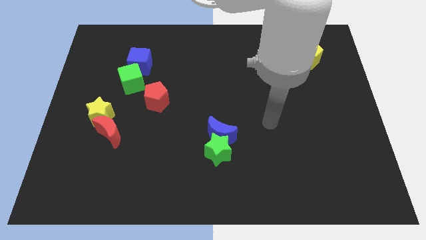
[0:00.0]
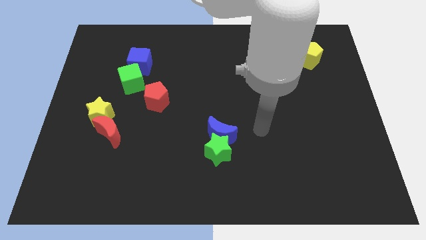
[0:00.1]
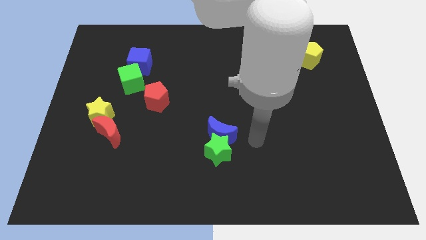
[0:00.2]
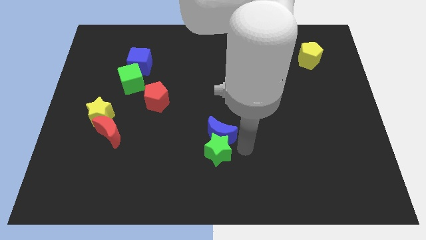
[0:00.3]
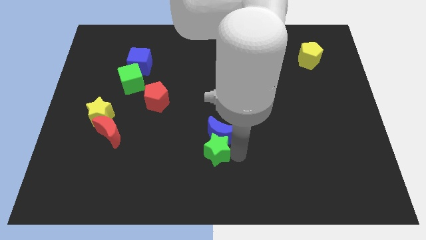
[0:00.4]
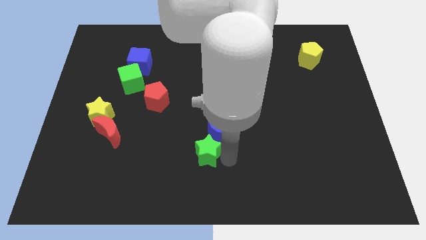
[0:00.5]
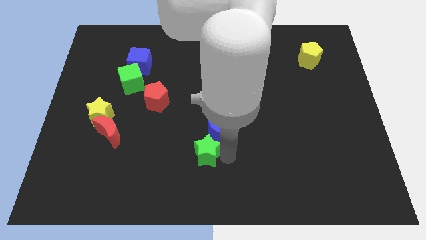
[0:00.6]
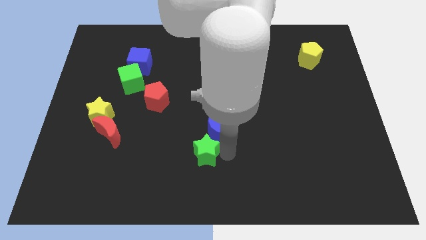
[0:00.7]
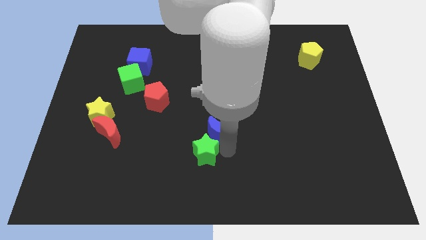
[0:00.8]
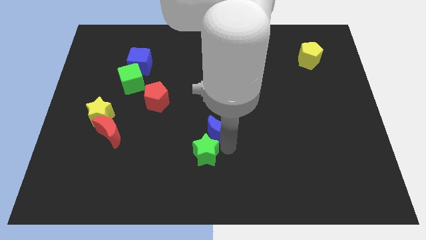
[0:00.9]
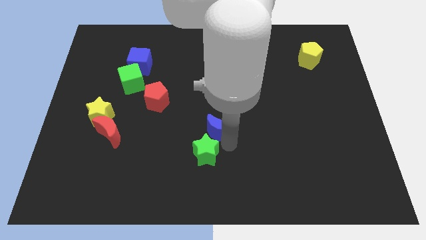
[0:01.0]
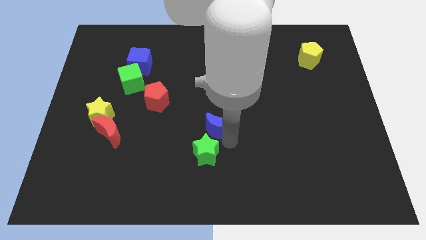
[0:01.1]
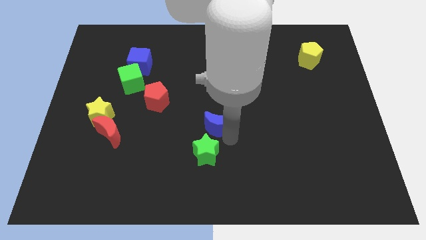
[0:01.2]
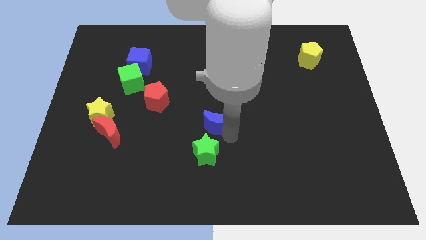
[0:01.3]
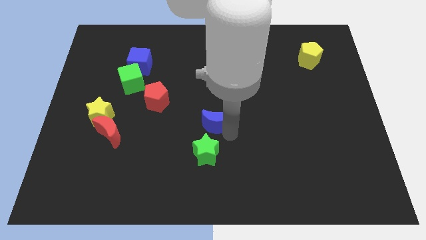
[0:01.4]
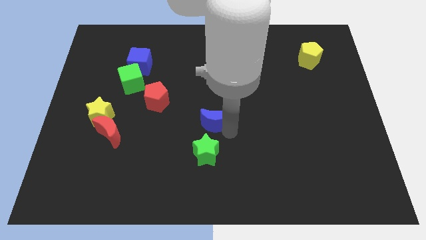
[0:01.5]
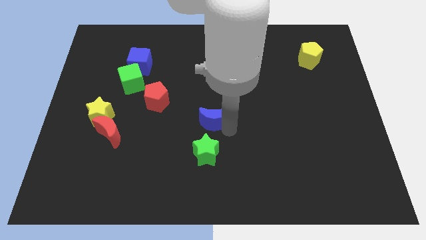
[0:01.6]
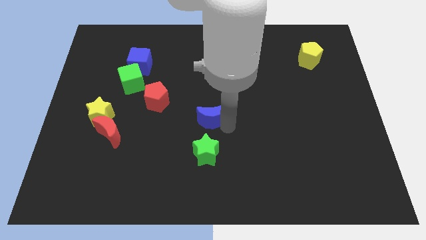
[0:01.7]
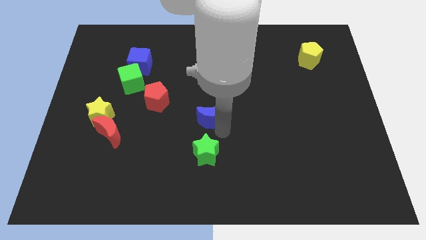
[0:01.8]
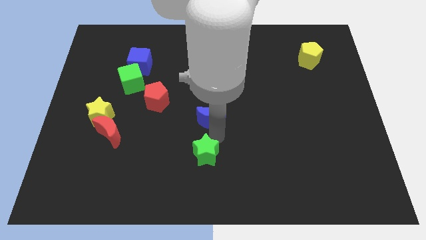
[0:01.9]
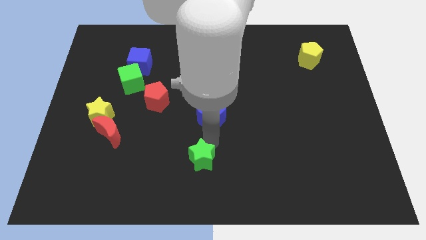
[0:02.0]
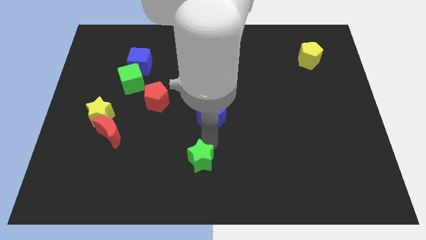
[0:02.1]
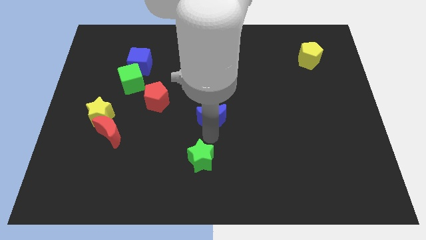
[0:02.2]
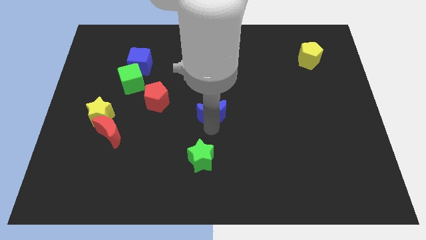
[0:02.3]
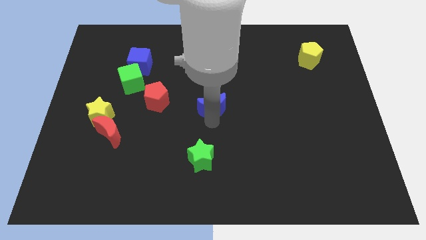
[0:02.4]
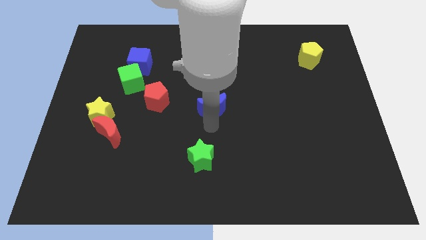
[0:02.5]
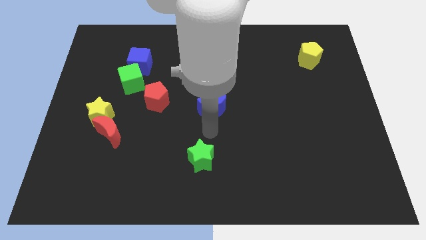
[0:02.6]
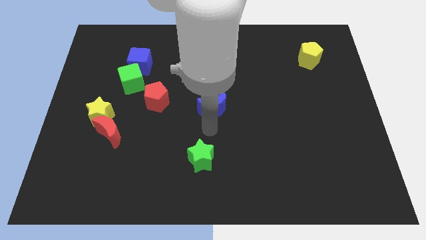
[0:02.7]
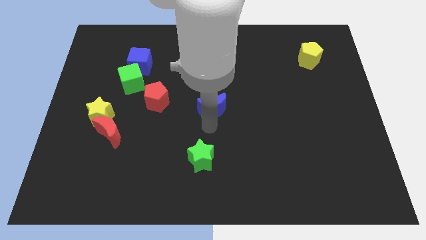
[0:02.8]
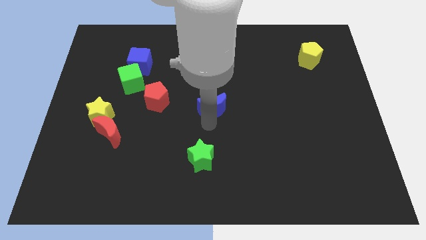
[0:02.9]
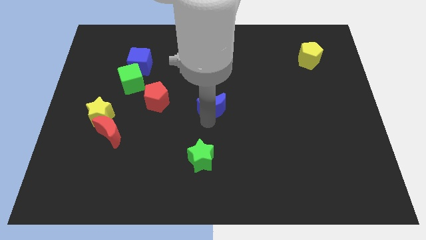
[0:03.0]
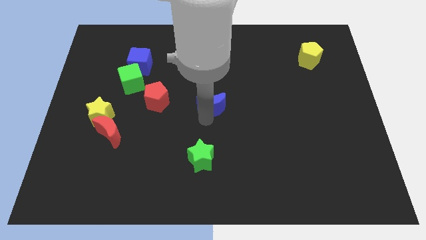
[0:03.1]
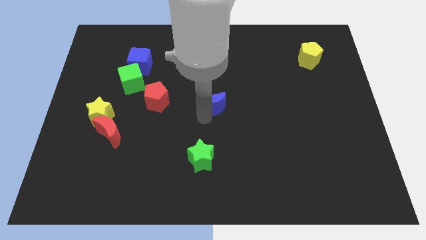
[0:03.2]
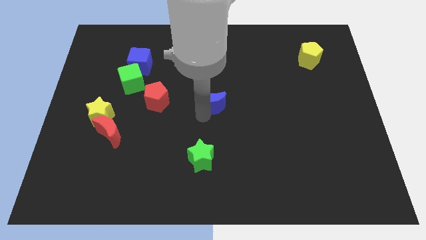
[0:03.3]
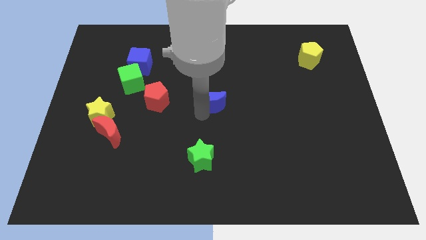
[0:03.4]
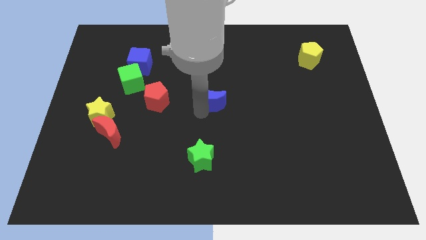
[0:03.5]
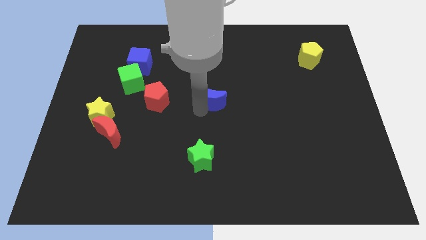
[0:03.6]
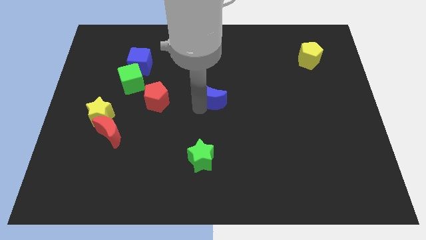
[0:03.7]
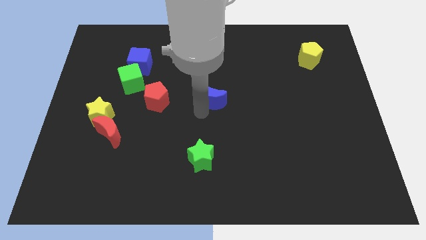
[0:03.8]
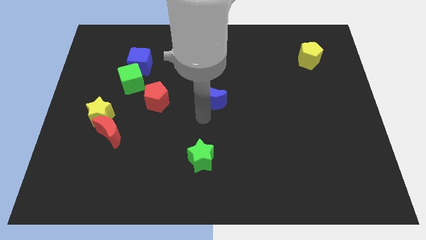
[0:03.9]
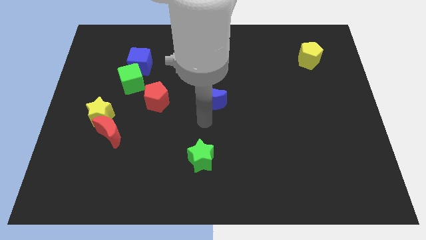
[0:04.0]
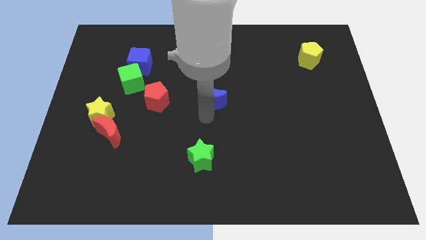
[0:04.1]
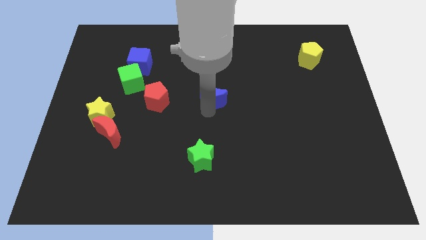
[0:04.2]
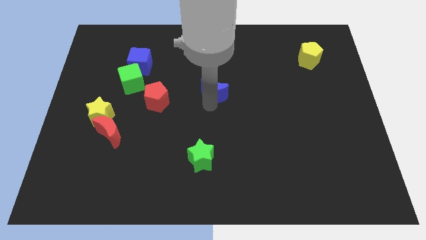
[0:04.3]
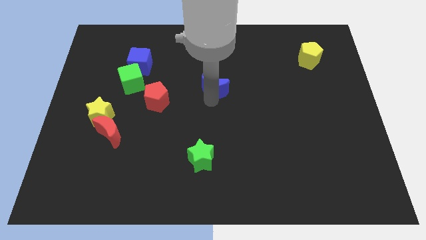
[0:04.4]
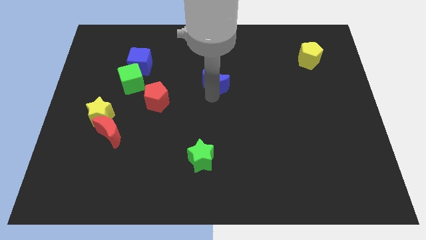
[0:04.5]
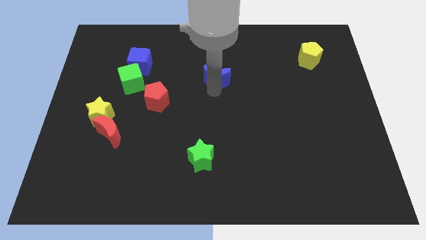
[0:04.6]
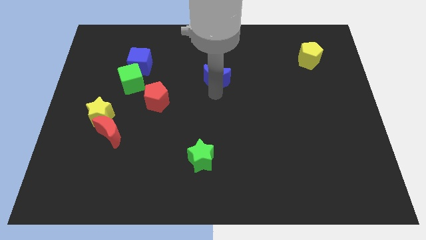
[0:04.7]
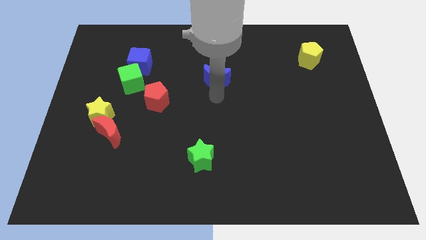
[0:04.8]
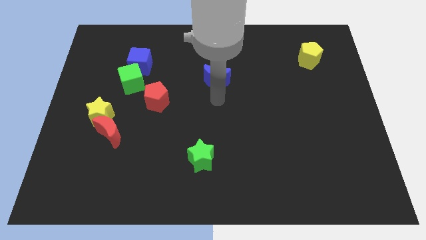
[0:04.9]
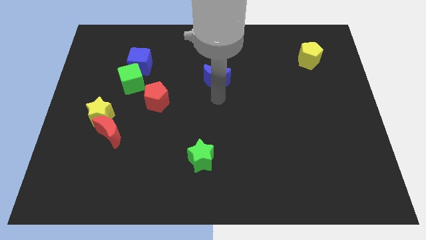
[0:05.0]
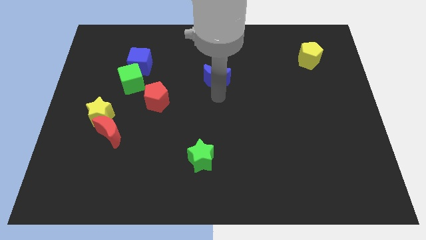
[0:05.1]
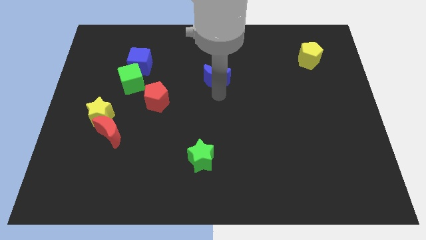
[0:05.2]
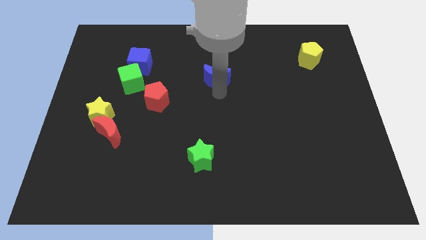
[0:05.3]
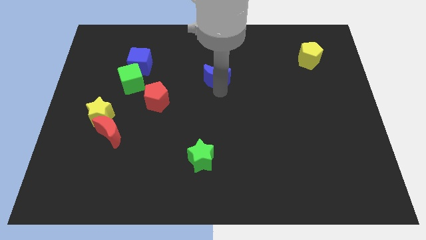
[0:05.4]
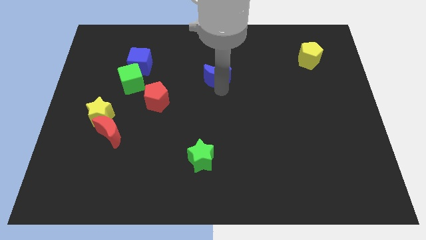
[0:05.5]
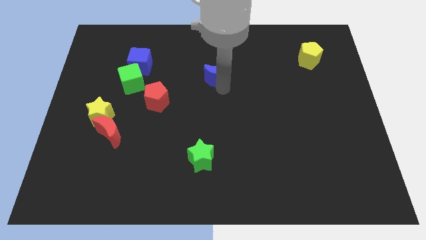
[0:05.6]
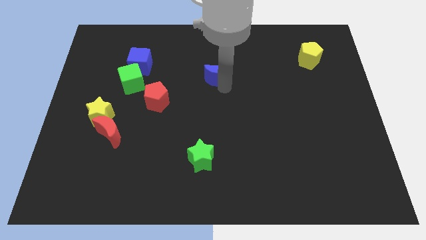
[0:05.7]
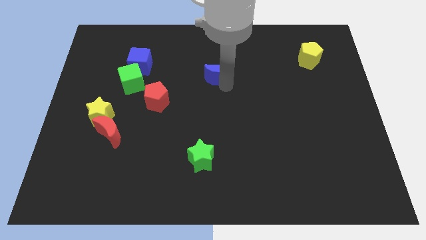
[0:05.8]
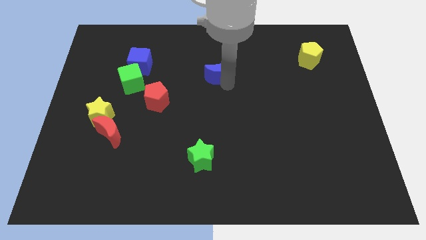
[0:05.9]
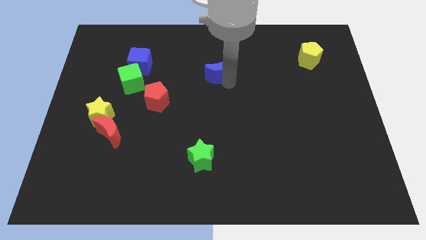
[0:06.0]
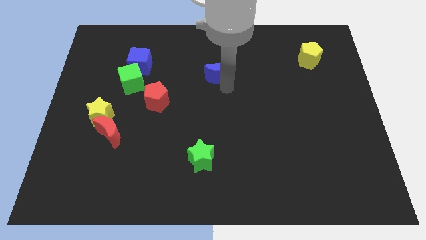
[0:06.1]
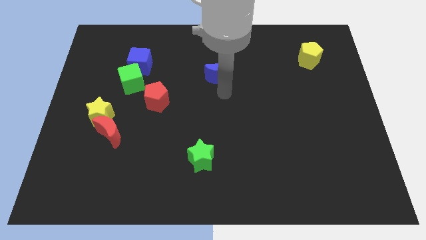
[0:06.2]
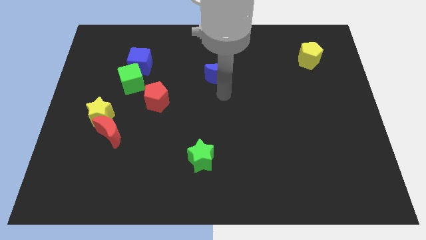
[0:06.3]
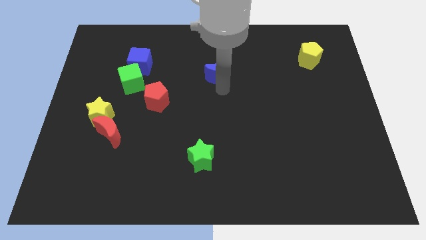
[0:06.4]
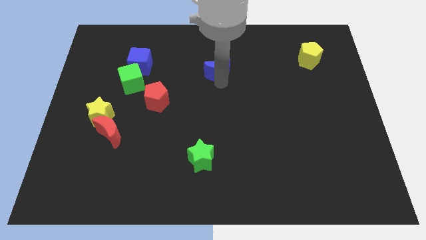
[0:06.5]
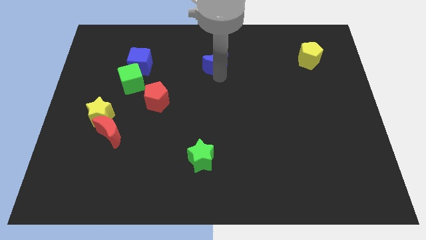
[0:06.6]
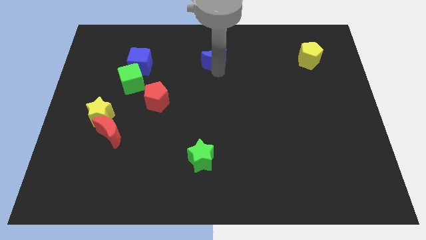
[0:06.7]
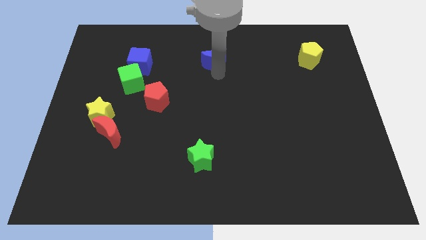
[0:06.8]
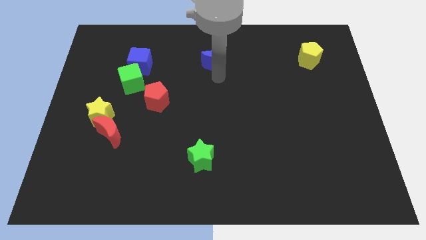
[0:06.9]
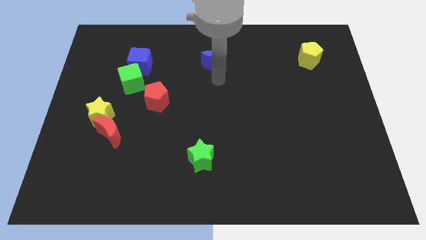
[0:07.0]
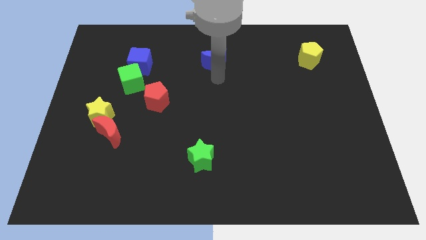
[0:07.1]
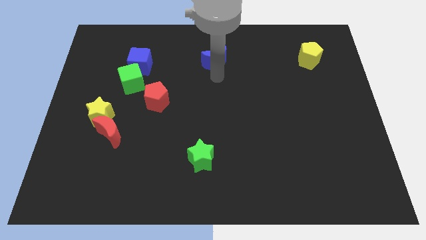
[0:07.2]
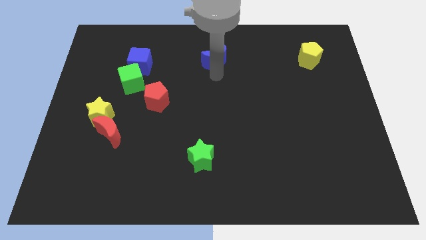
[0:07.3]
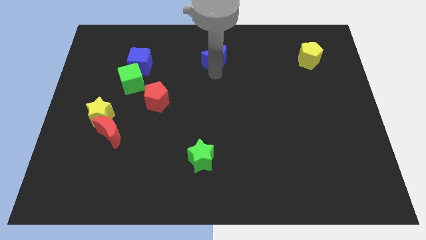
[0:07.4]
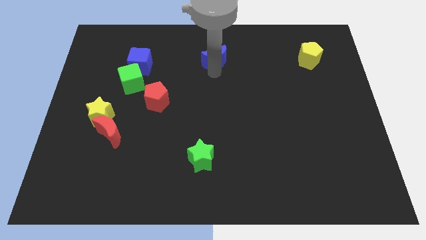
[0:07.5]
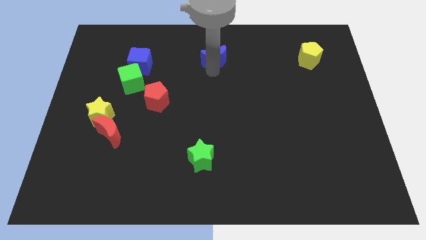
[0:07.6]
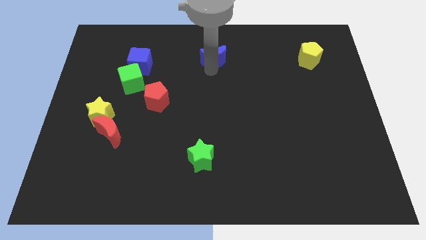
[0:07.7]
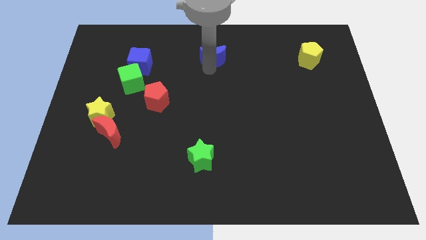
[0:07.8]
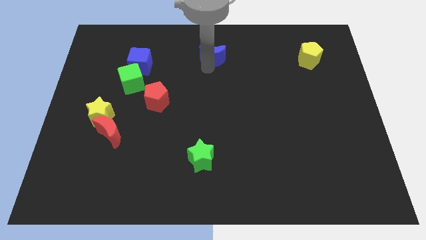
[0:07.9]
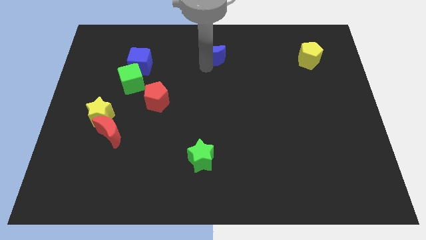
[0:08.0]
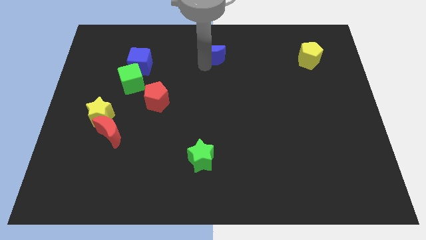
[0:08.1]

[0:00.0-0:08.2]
move the blue moon to the top side
